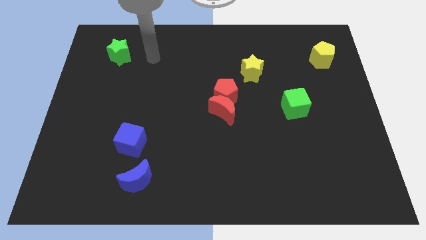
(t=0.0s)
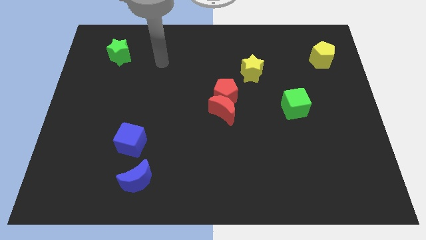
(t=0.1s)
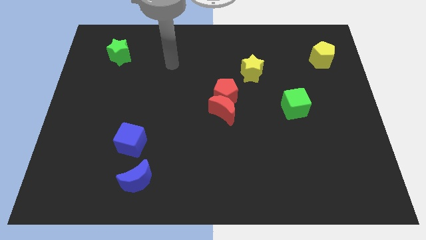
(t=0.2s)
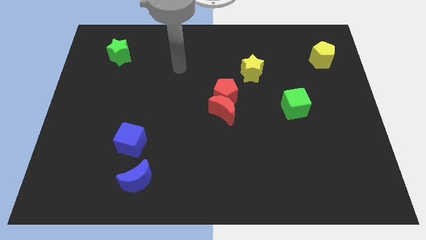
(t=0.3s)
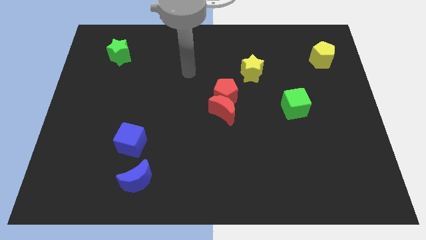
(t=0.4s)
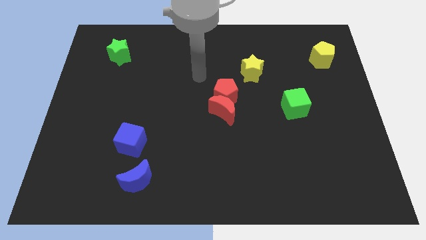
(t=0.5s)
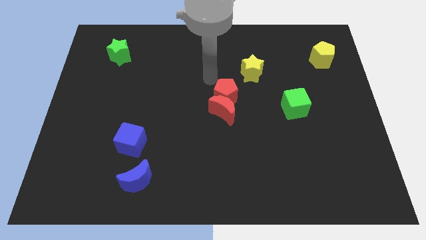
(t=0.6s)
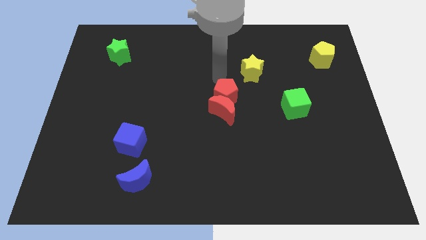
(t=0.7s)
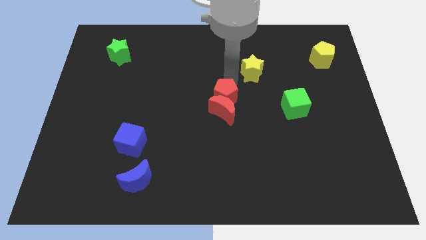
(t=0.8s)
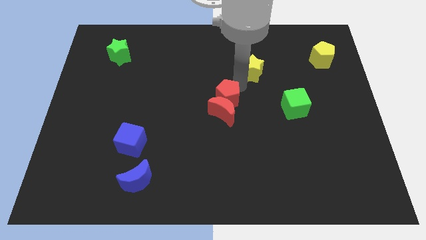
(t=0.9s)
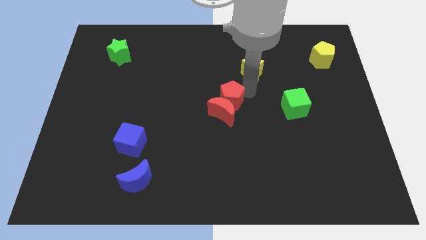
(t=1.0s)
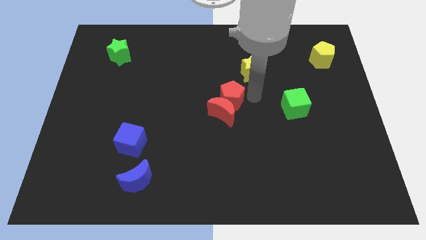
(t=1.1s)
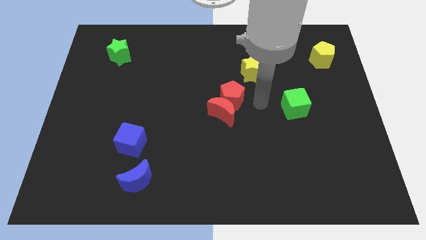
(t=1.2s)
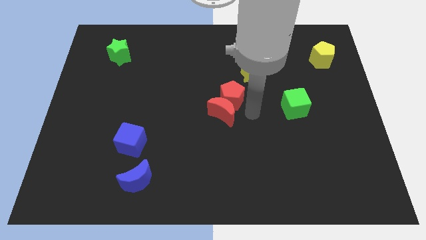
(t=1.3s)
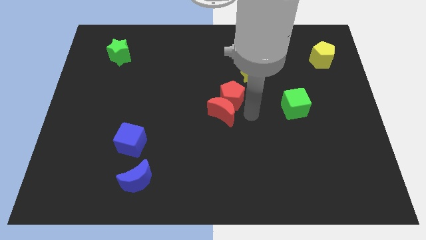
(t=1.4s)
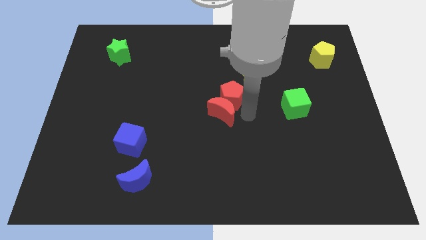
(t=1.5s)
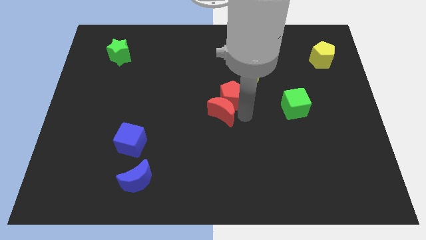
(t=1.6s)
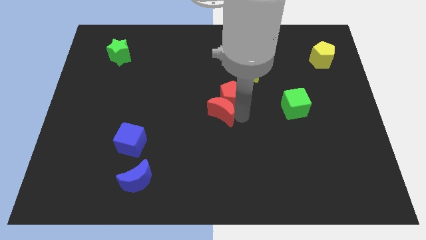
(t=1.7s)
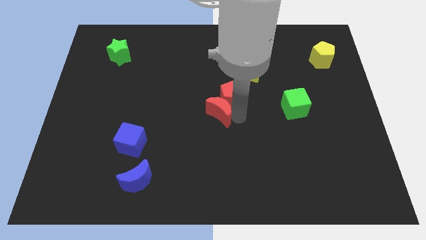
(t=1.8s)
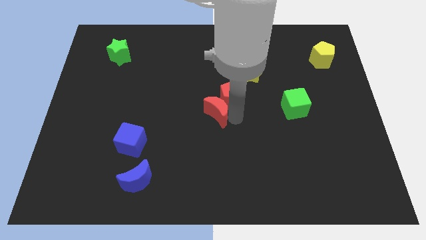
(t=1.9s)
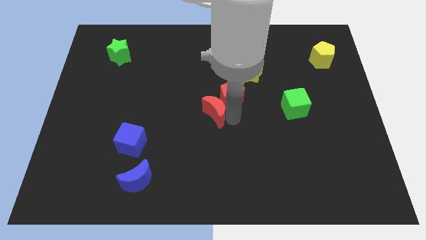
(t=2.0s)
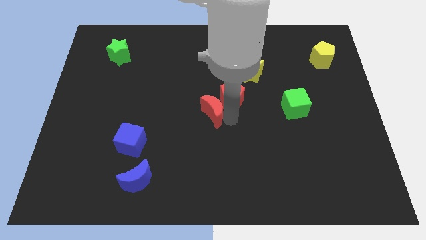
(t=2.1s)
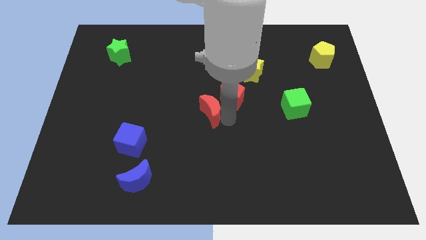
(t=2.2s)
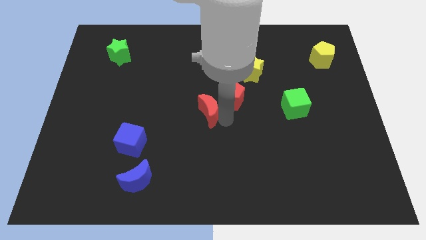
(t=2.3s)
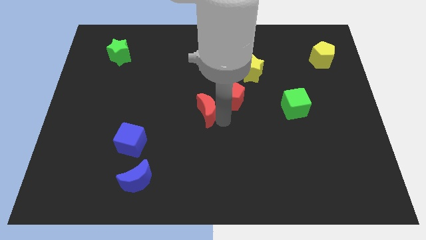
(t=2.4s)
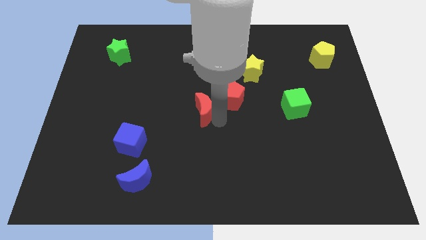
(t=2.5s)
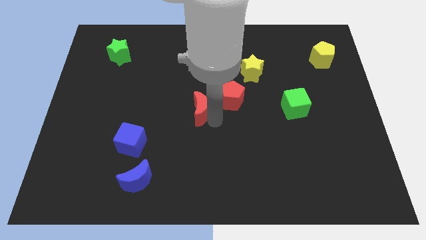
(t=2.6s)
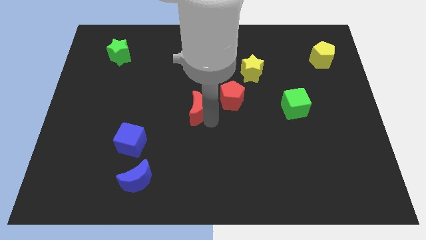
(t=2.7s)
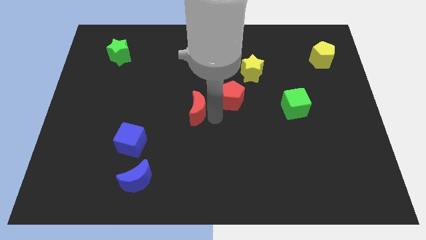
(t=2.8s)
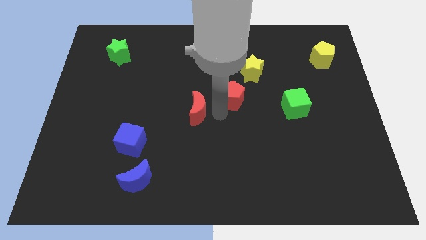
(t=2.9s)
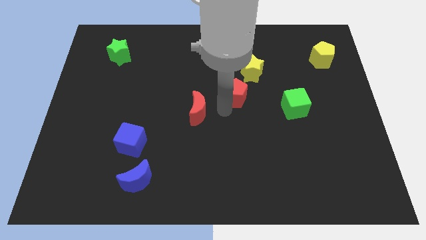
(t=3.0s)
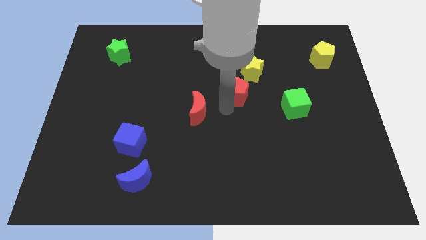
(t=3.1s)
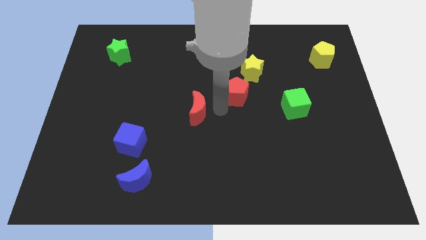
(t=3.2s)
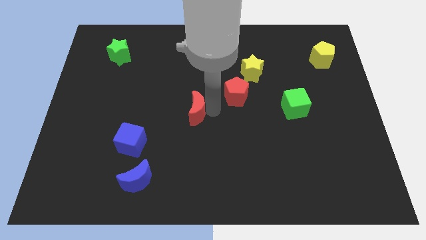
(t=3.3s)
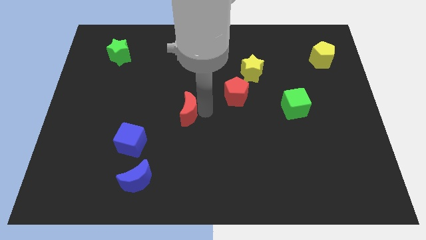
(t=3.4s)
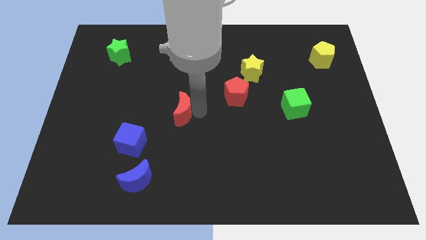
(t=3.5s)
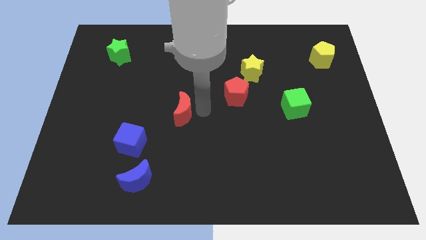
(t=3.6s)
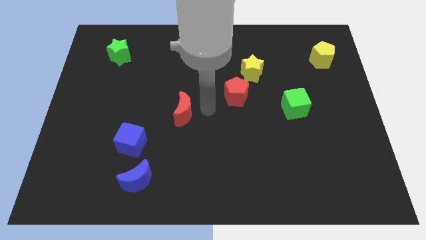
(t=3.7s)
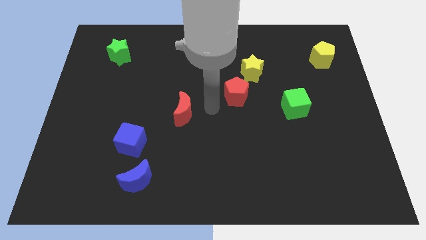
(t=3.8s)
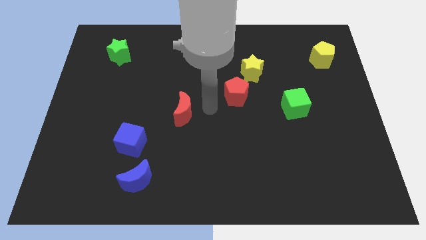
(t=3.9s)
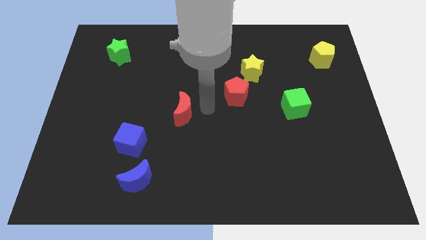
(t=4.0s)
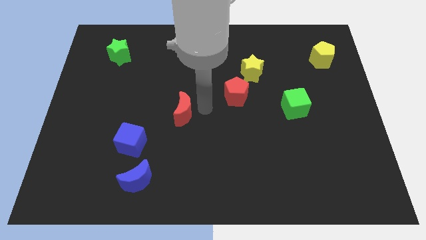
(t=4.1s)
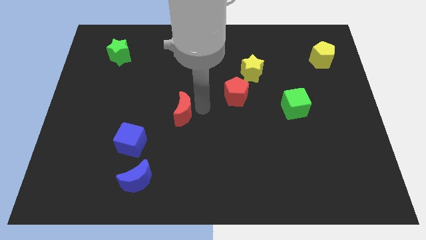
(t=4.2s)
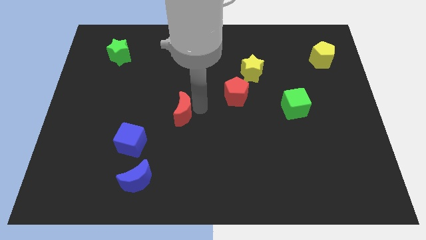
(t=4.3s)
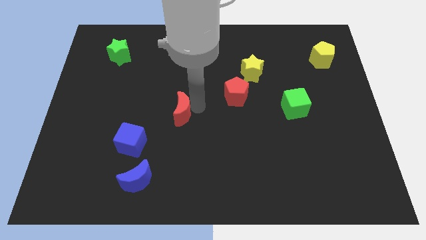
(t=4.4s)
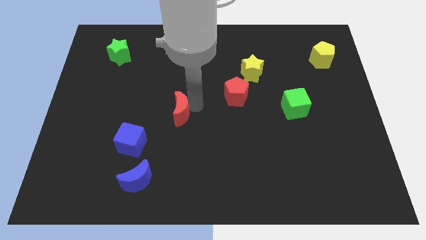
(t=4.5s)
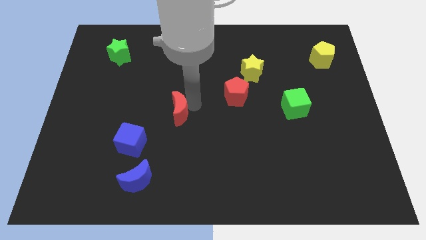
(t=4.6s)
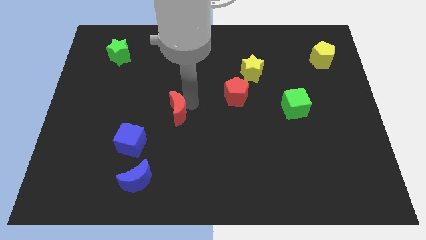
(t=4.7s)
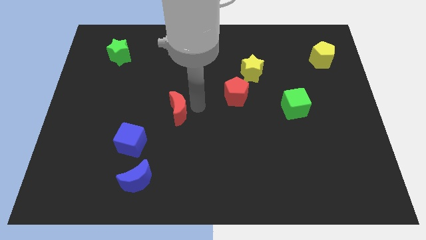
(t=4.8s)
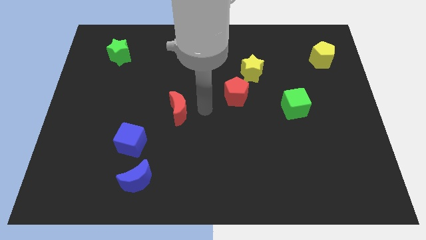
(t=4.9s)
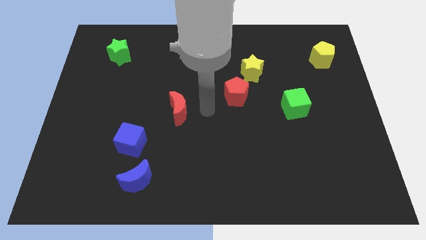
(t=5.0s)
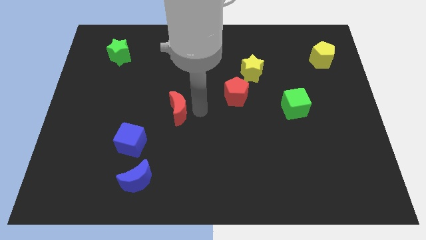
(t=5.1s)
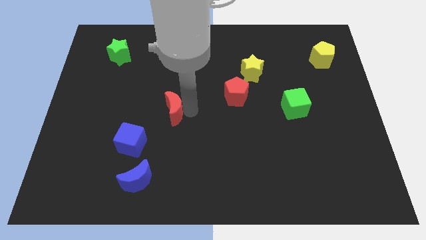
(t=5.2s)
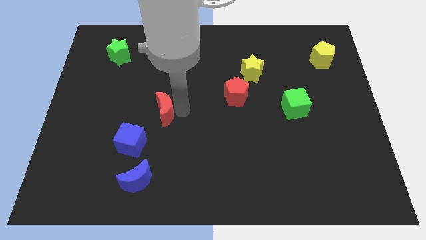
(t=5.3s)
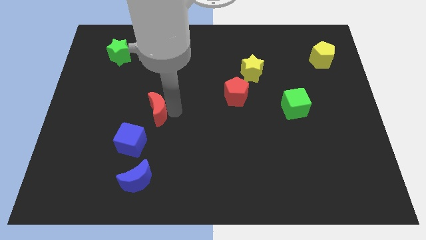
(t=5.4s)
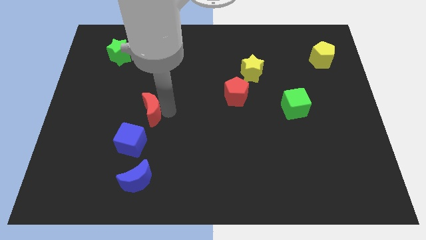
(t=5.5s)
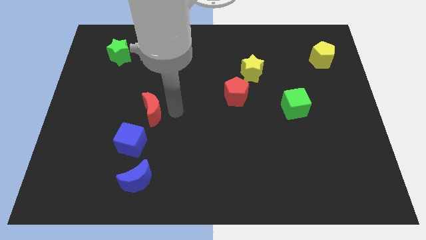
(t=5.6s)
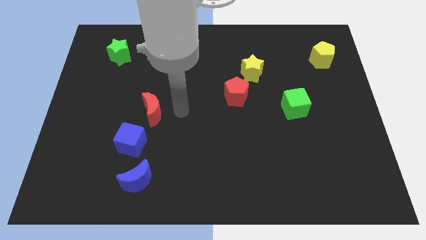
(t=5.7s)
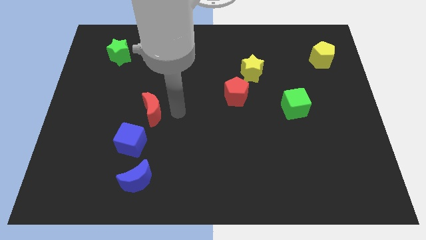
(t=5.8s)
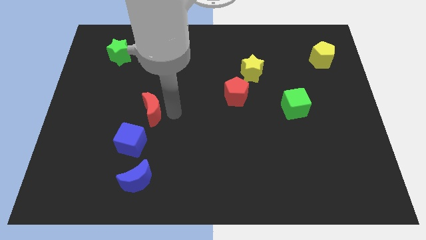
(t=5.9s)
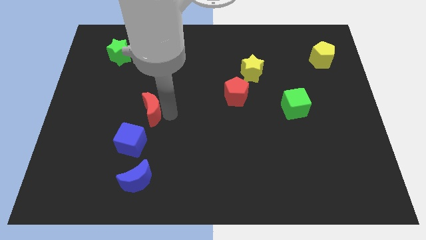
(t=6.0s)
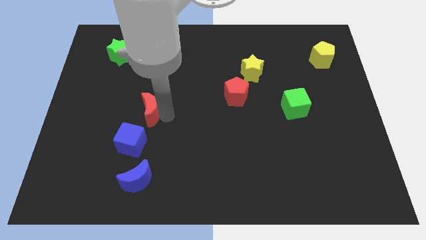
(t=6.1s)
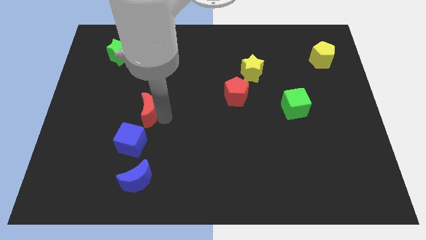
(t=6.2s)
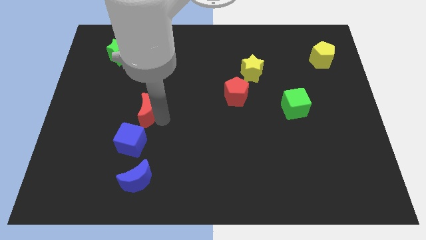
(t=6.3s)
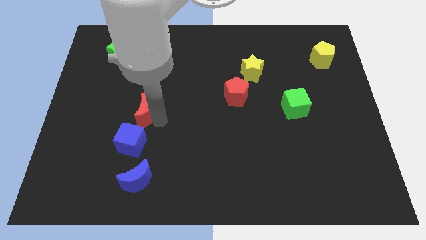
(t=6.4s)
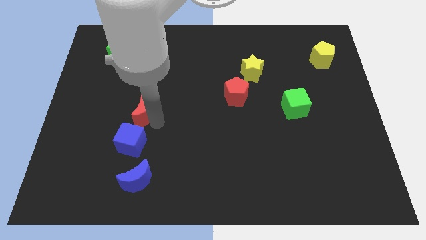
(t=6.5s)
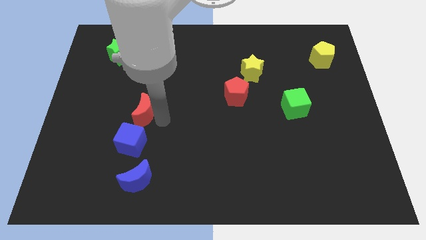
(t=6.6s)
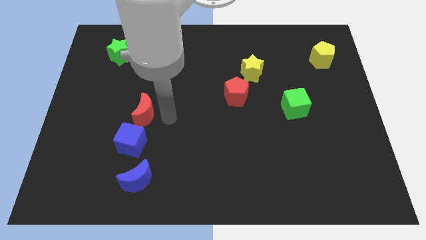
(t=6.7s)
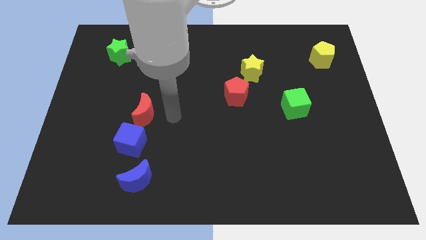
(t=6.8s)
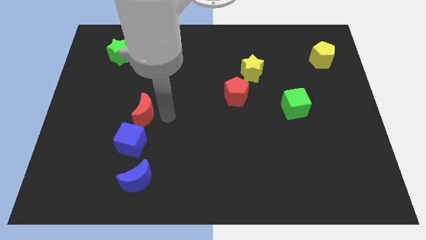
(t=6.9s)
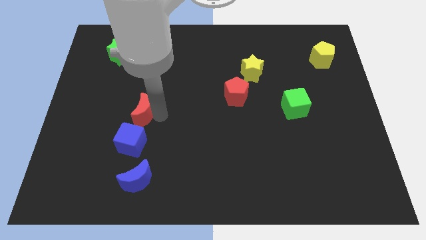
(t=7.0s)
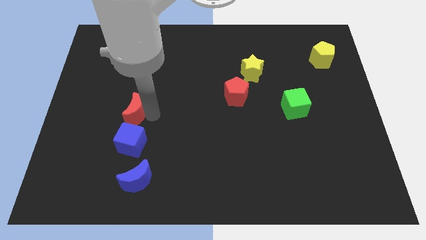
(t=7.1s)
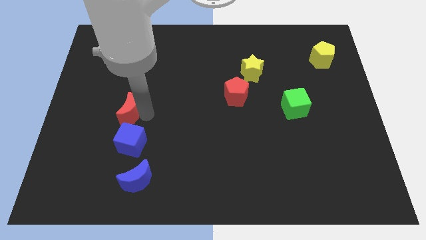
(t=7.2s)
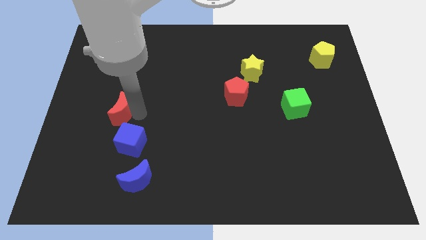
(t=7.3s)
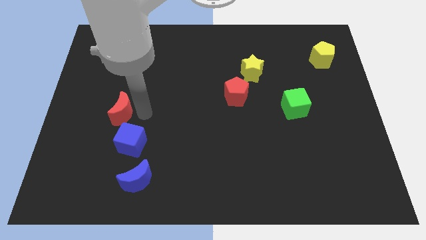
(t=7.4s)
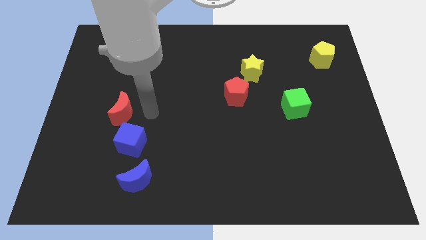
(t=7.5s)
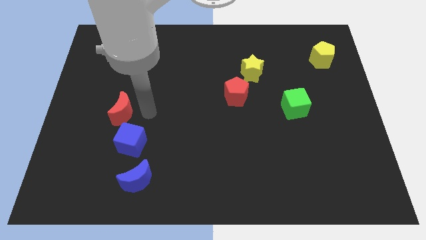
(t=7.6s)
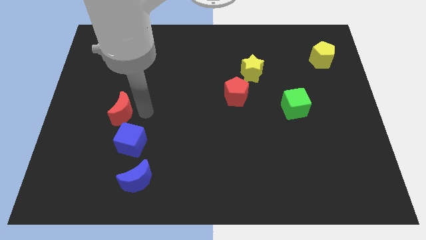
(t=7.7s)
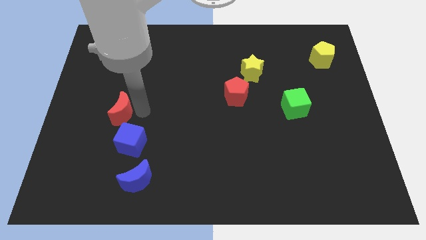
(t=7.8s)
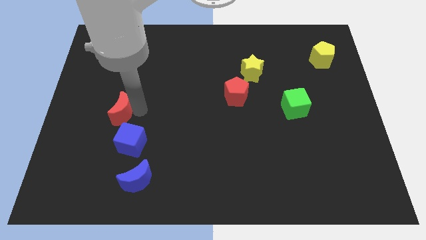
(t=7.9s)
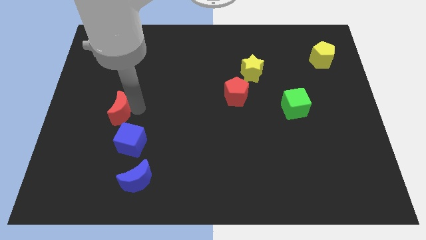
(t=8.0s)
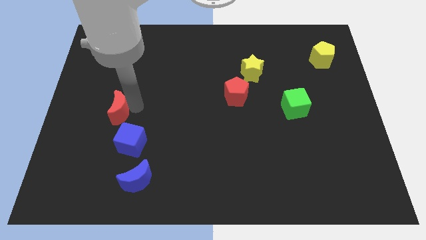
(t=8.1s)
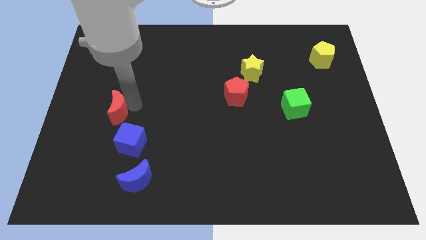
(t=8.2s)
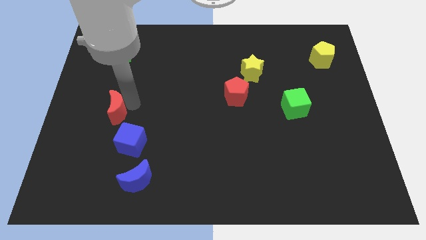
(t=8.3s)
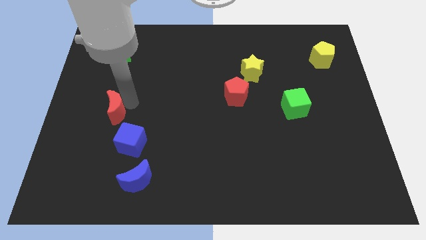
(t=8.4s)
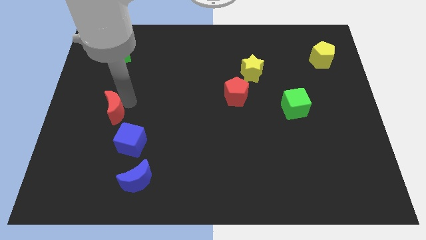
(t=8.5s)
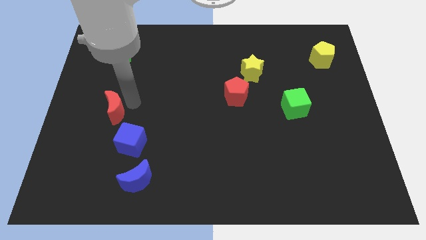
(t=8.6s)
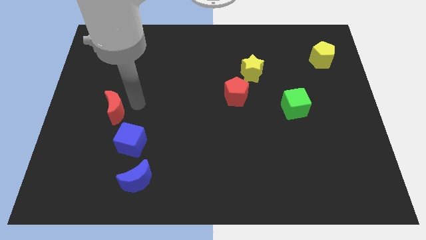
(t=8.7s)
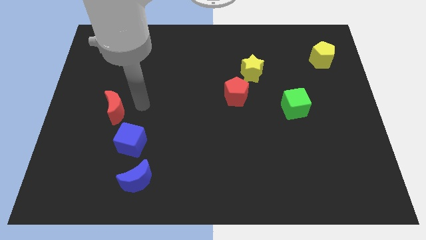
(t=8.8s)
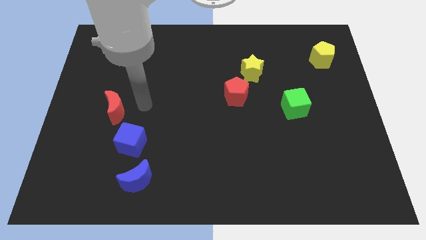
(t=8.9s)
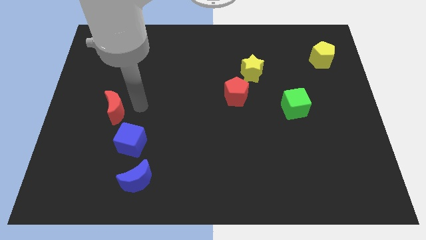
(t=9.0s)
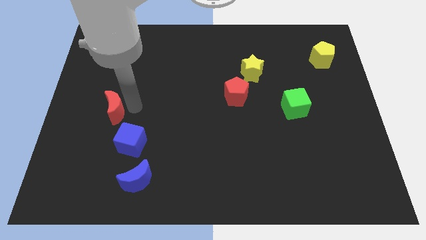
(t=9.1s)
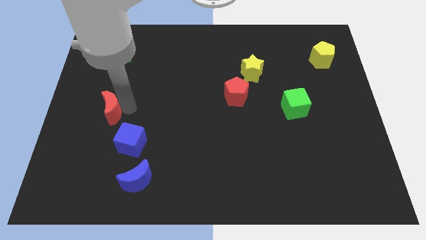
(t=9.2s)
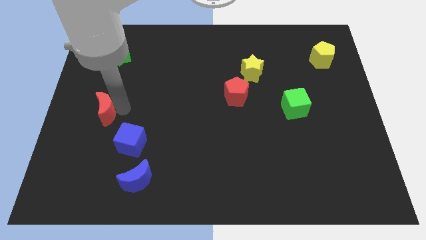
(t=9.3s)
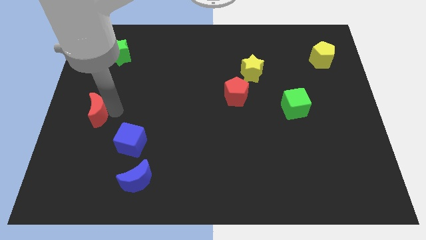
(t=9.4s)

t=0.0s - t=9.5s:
move the red moon to the left side
